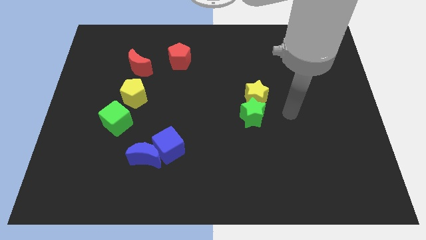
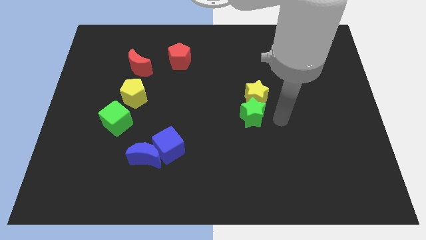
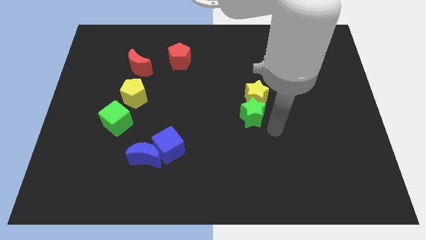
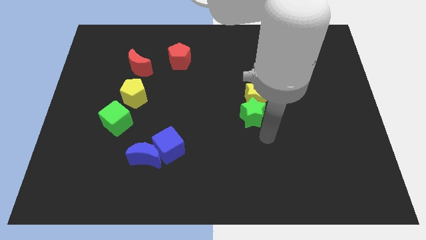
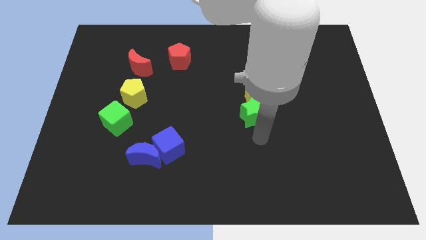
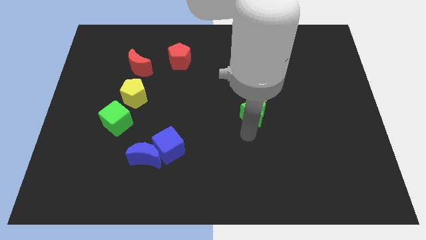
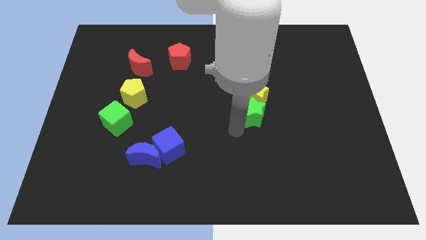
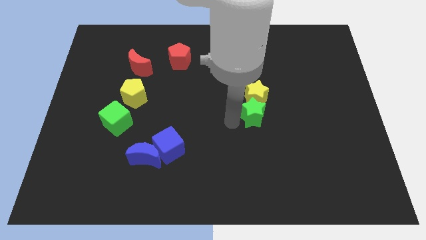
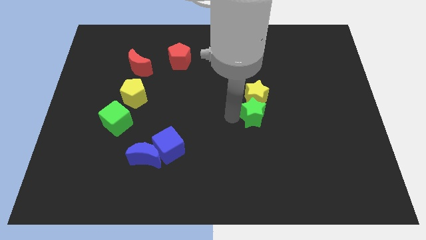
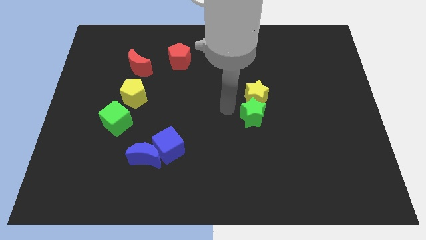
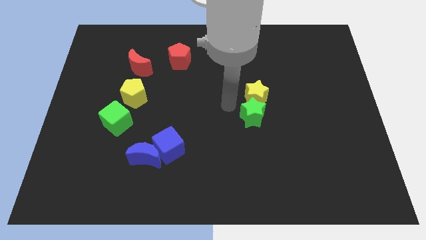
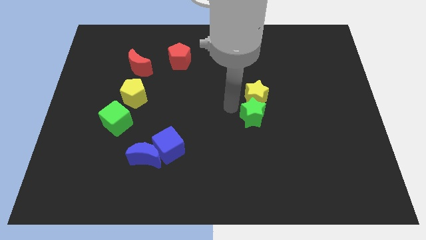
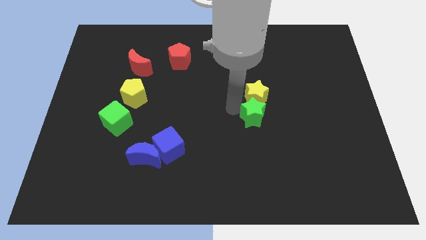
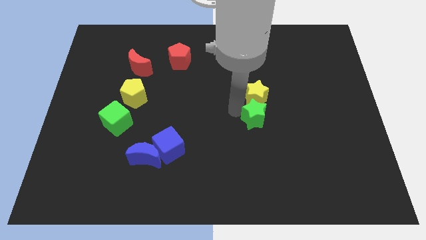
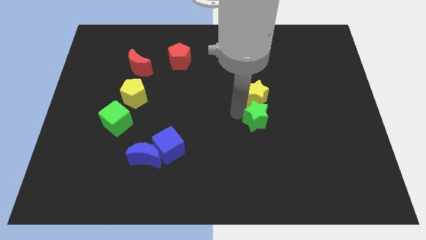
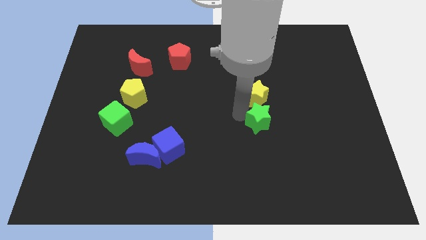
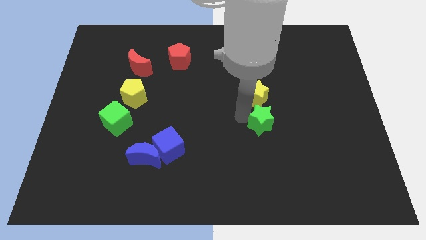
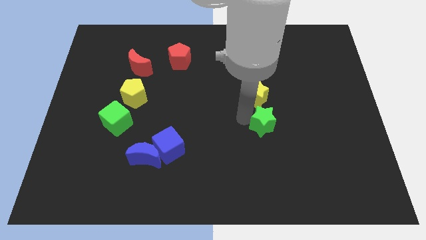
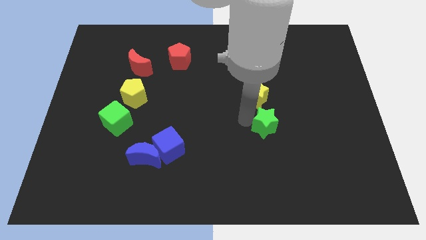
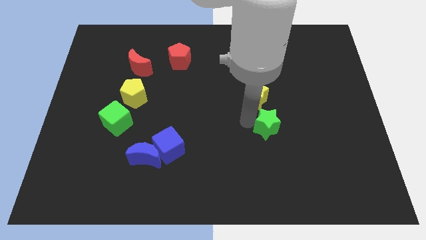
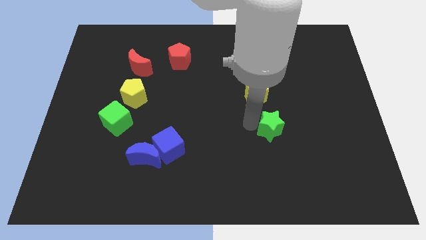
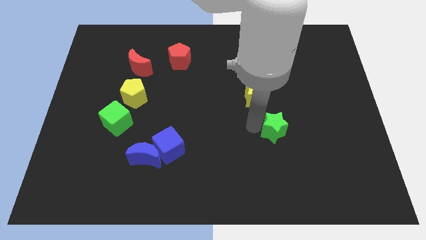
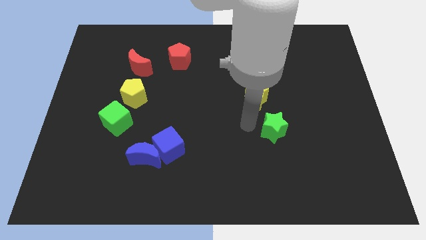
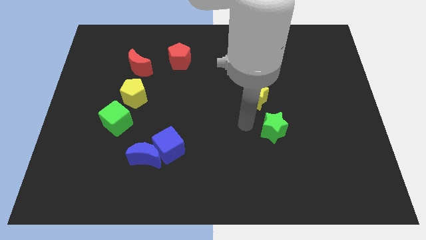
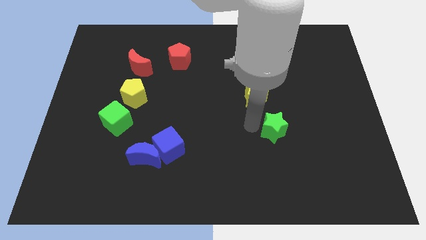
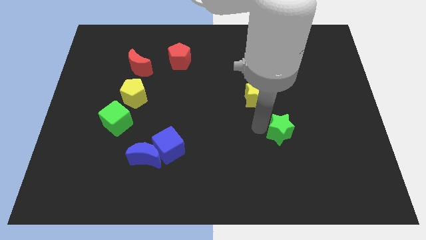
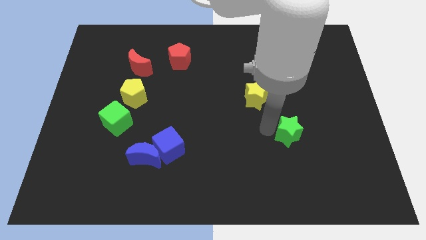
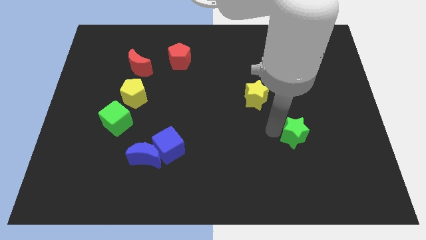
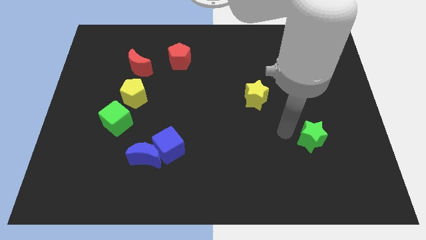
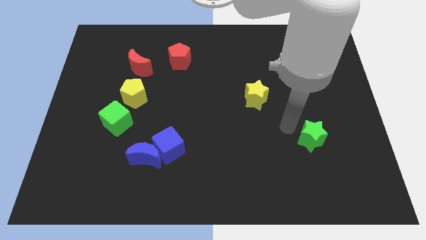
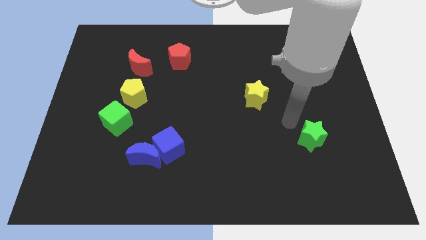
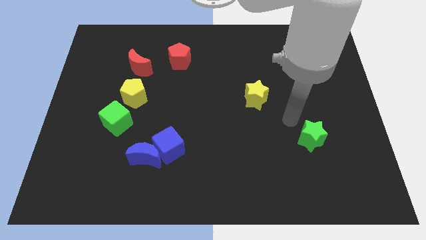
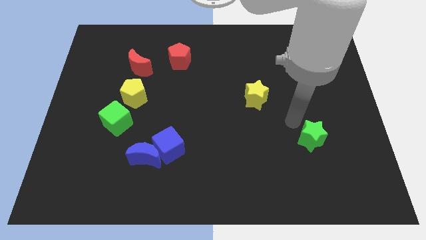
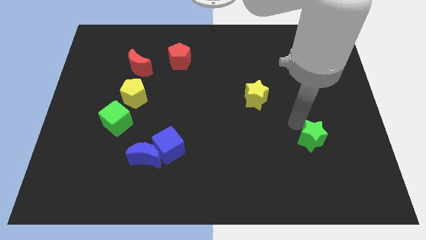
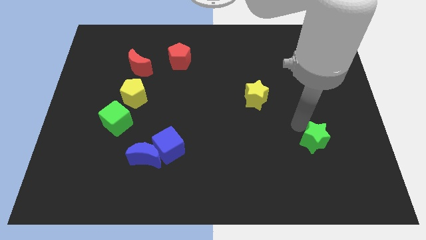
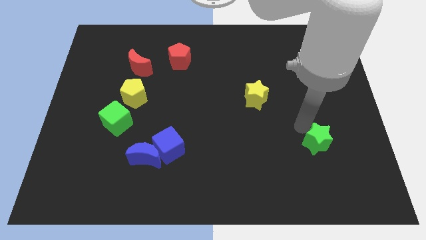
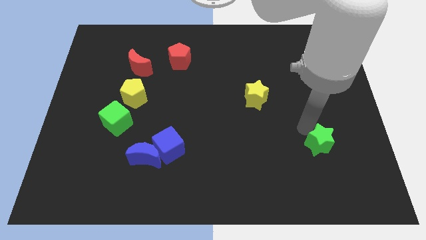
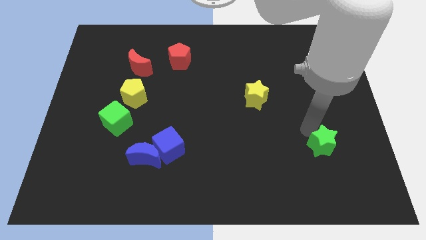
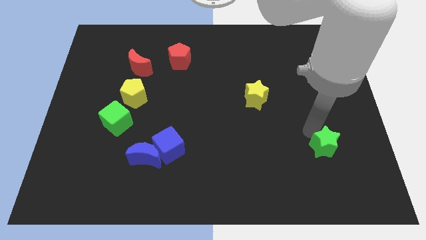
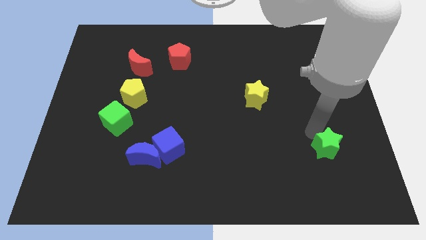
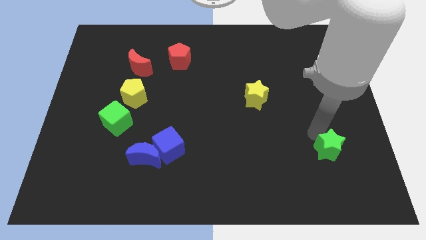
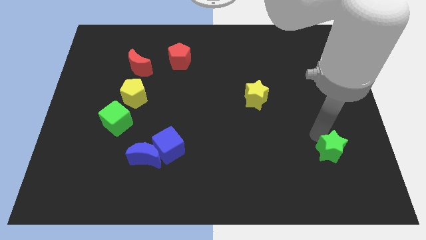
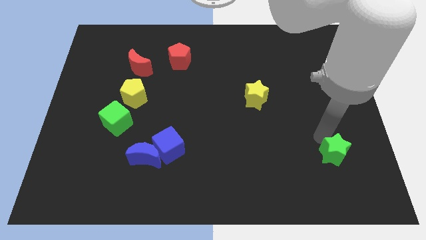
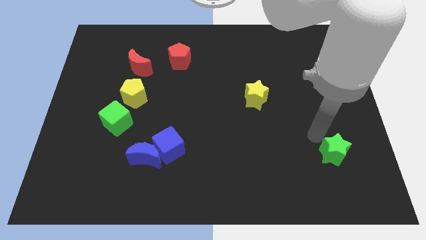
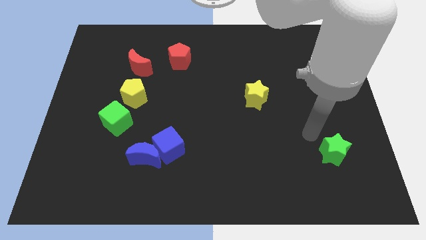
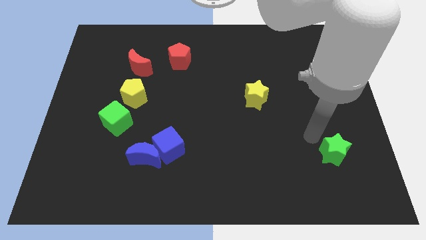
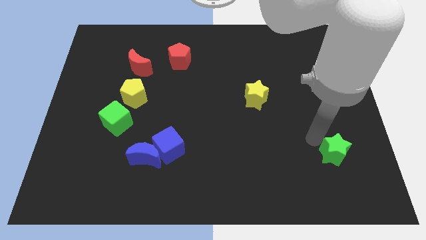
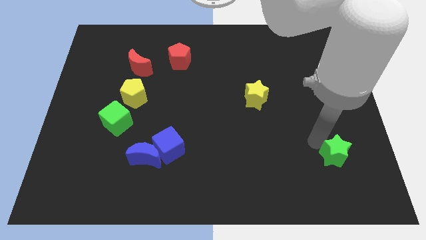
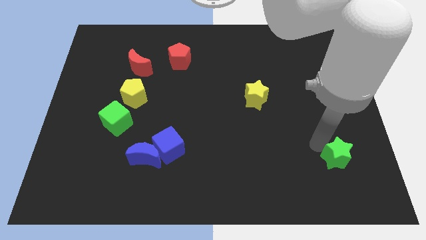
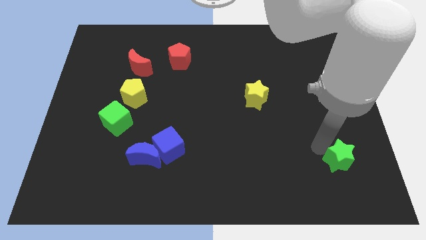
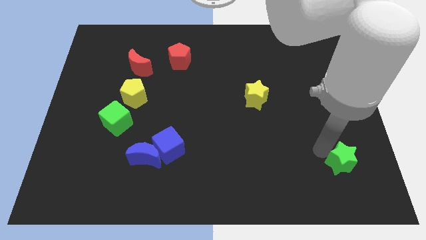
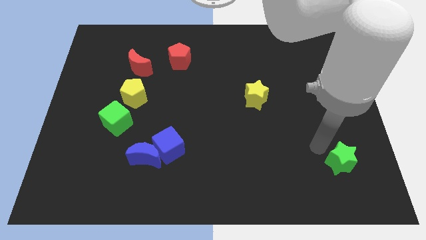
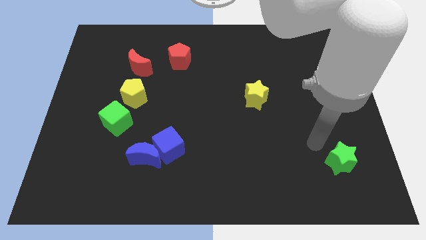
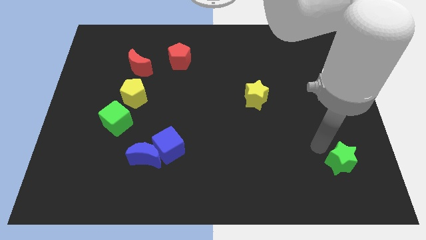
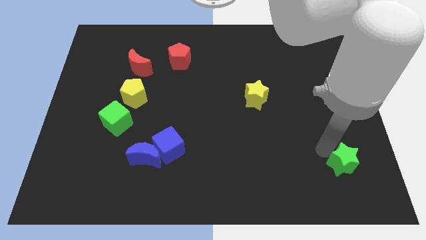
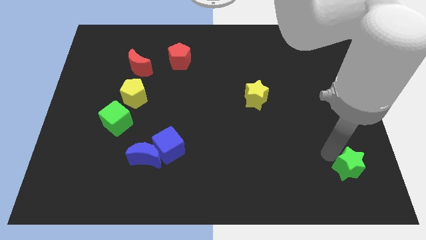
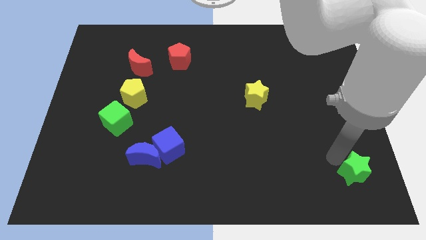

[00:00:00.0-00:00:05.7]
move the green star to the lower right corner

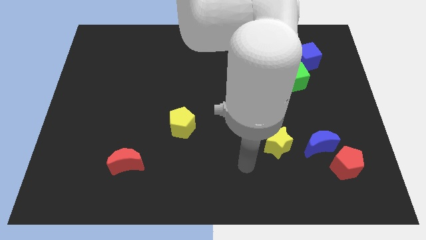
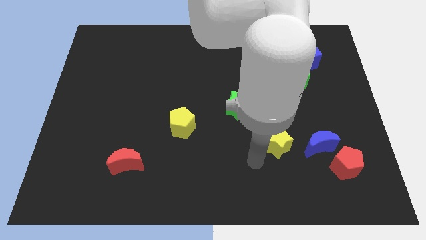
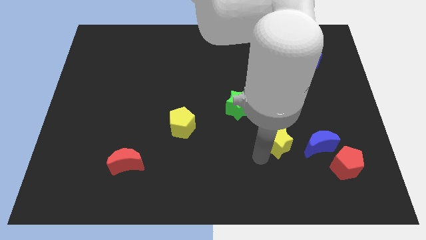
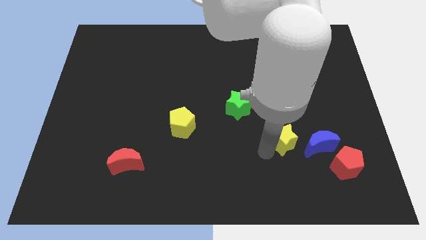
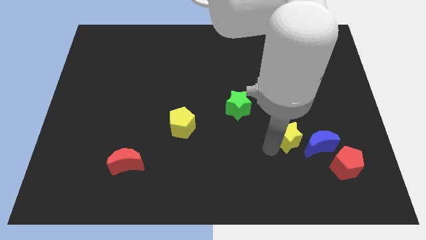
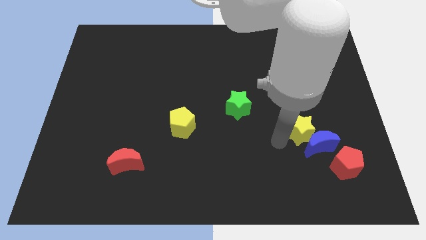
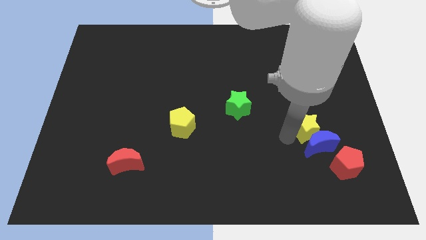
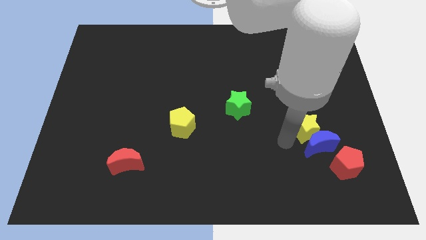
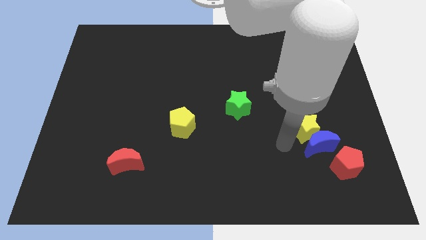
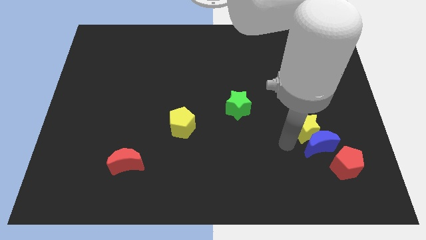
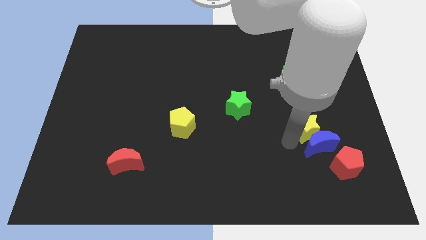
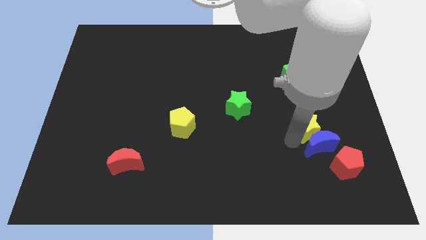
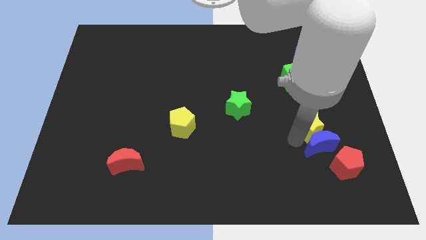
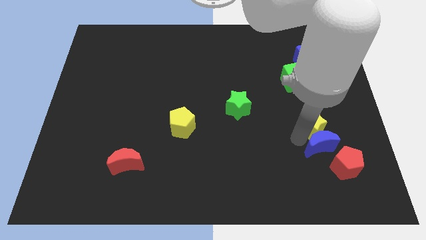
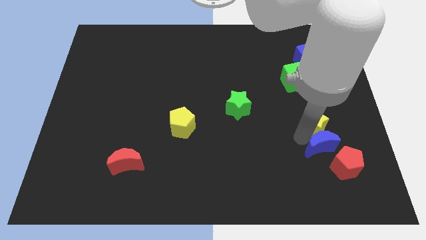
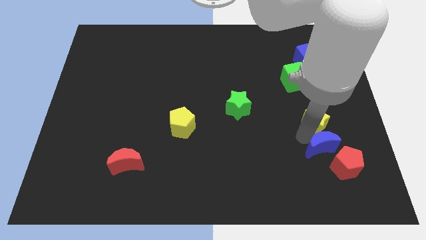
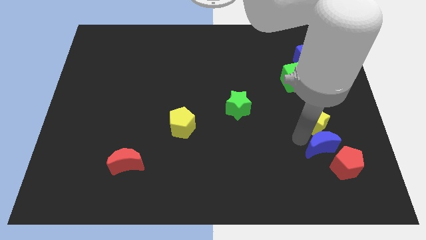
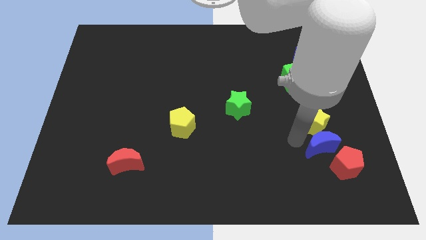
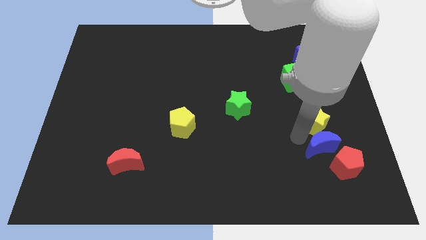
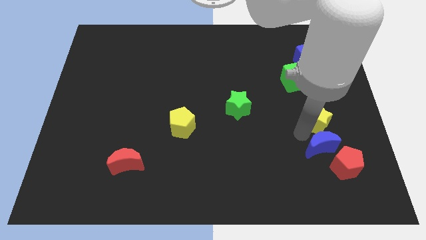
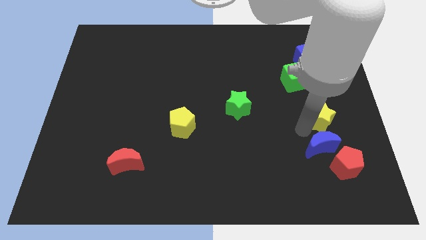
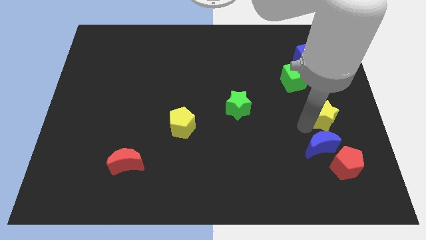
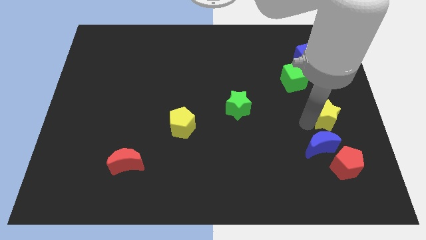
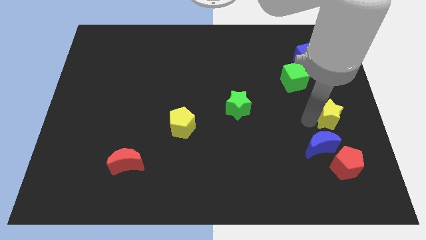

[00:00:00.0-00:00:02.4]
slide the yellow star to the center right
